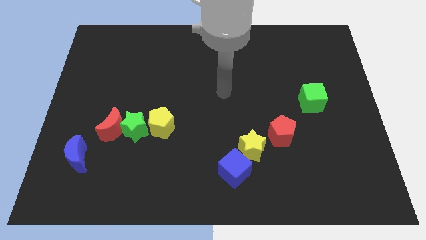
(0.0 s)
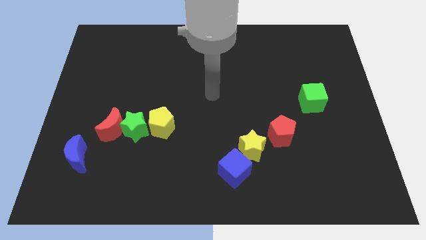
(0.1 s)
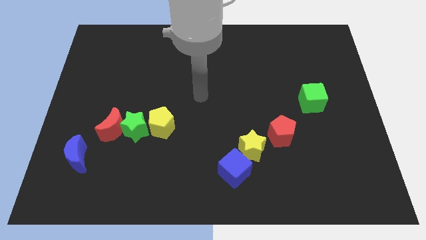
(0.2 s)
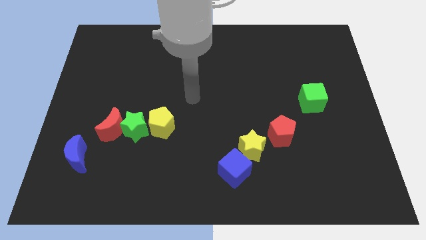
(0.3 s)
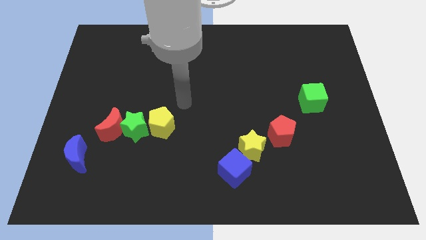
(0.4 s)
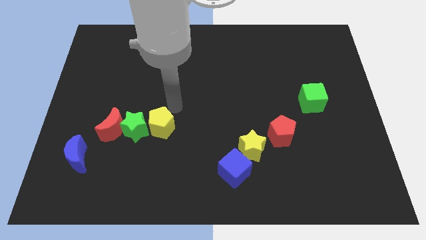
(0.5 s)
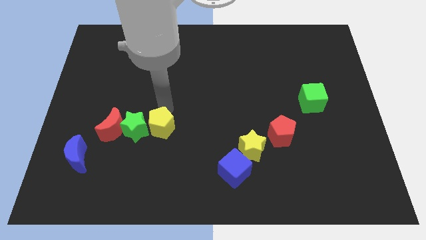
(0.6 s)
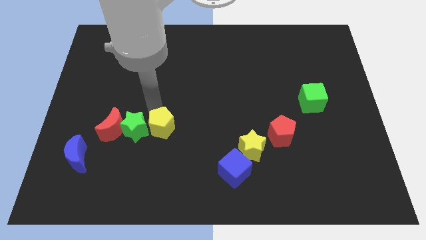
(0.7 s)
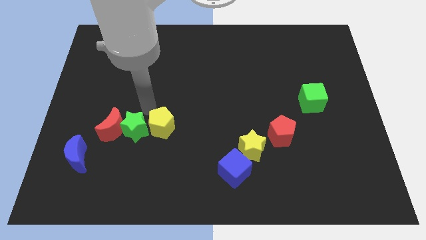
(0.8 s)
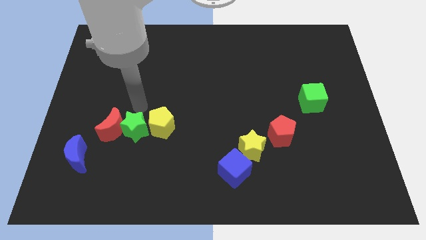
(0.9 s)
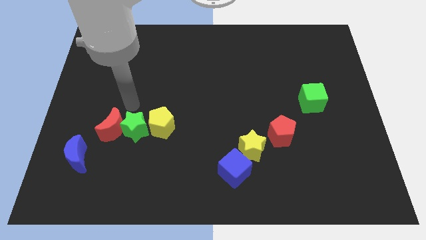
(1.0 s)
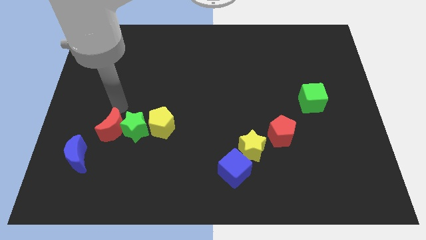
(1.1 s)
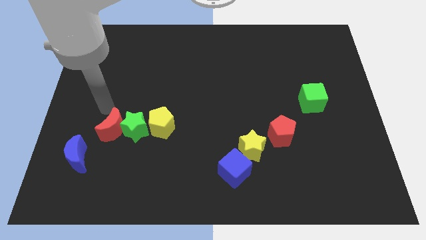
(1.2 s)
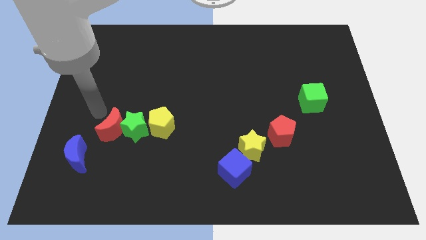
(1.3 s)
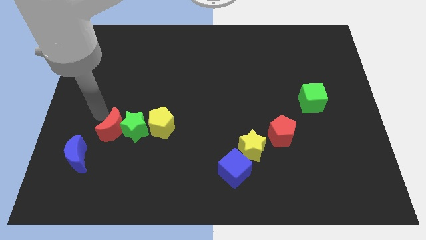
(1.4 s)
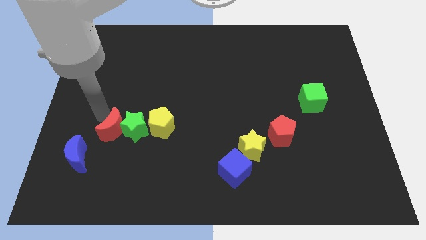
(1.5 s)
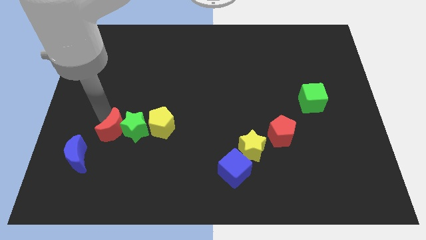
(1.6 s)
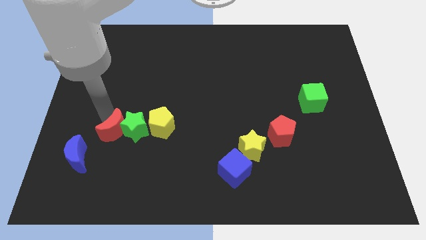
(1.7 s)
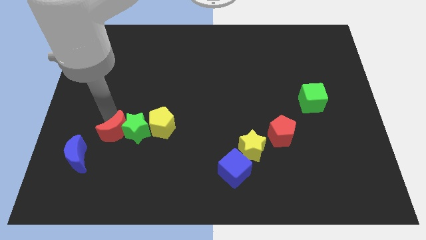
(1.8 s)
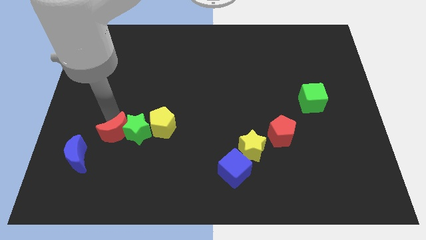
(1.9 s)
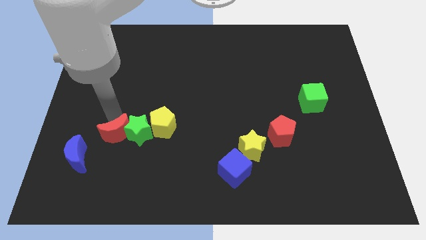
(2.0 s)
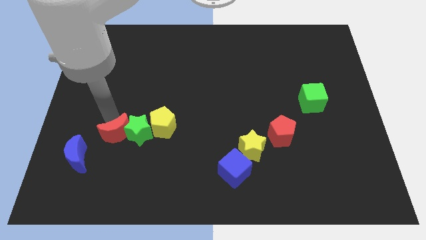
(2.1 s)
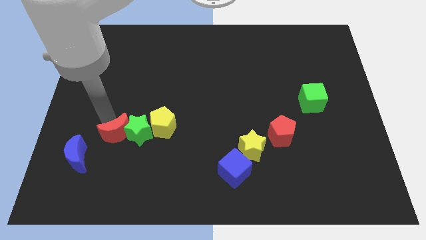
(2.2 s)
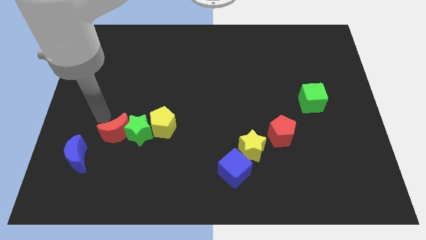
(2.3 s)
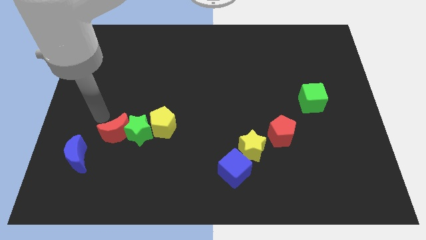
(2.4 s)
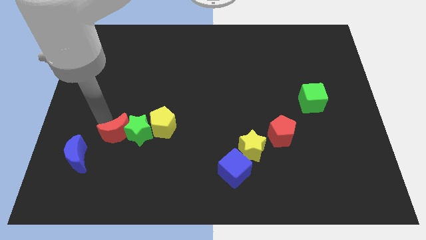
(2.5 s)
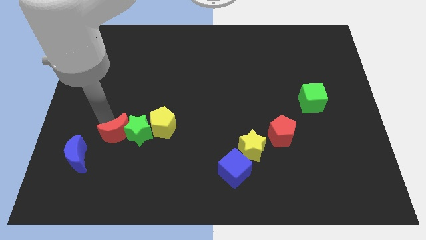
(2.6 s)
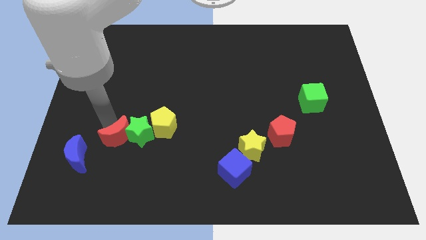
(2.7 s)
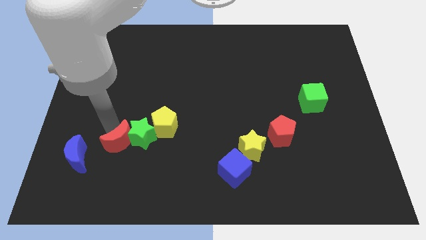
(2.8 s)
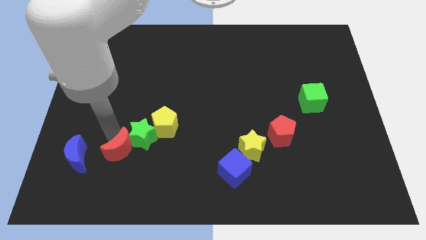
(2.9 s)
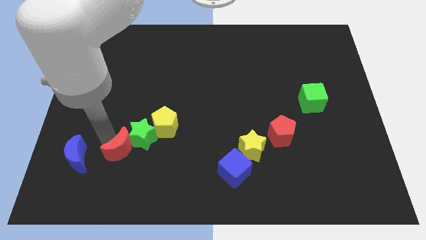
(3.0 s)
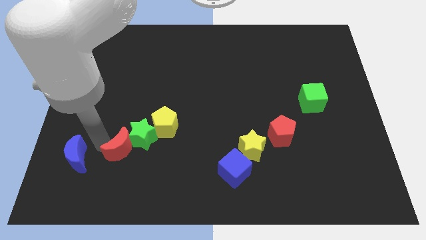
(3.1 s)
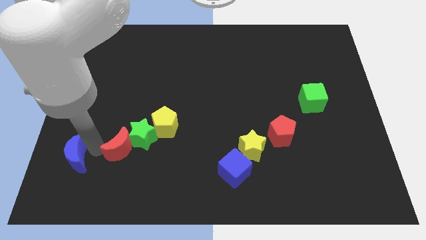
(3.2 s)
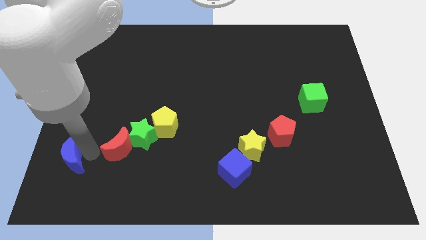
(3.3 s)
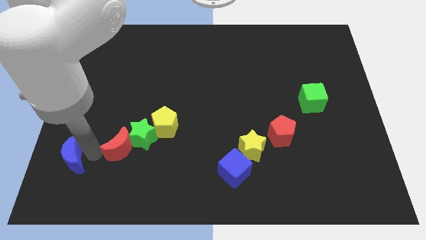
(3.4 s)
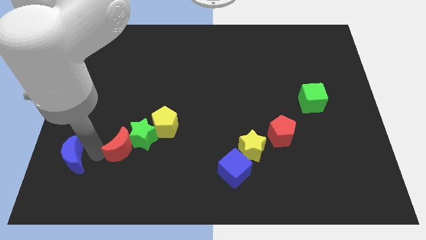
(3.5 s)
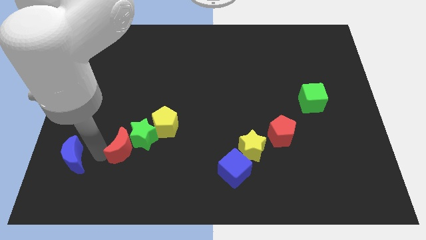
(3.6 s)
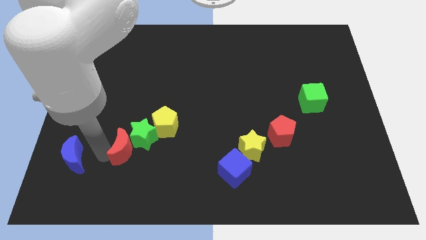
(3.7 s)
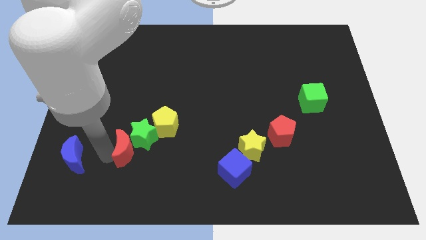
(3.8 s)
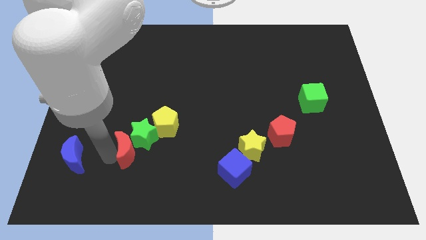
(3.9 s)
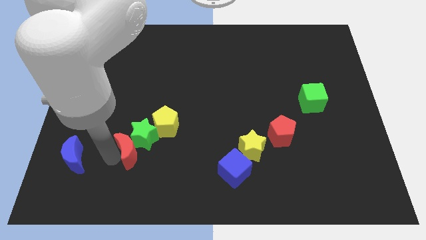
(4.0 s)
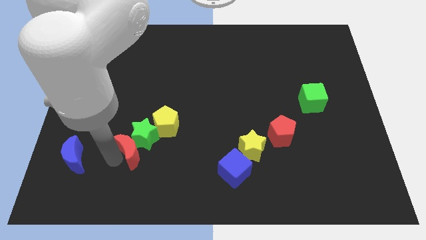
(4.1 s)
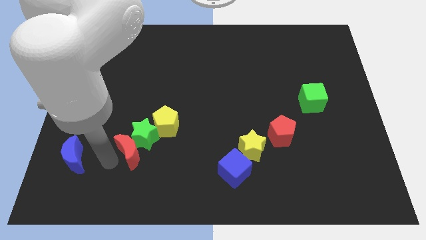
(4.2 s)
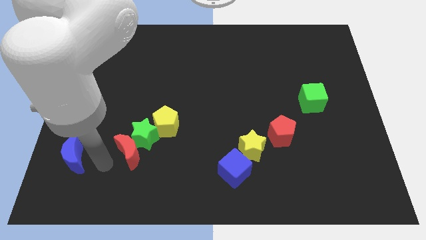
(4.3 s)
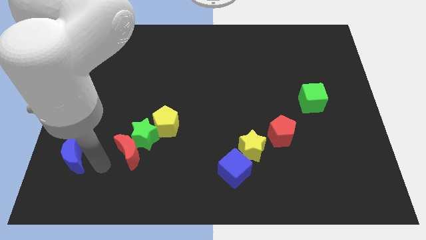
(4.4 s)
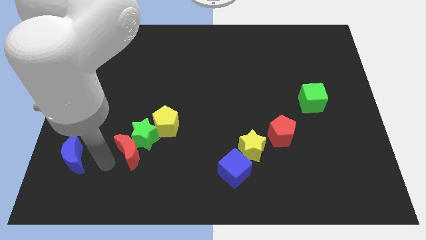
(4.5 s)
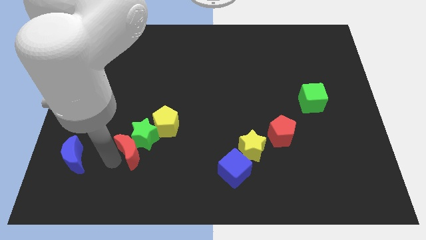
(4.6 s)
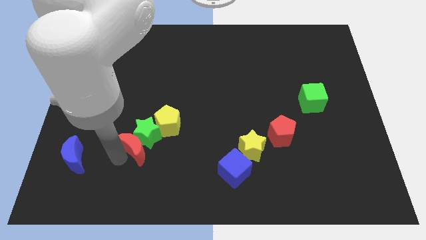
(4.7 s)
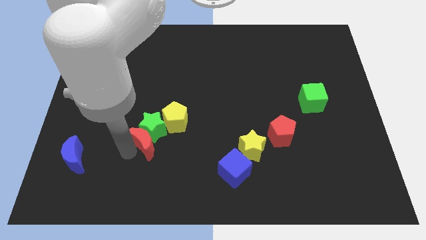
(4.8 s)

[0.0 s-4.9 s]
slide the red moon slightly right

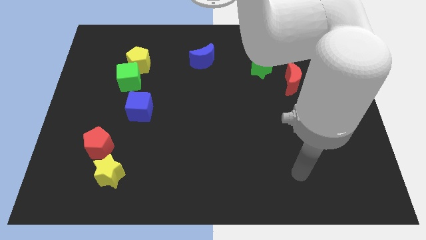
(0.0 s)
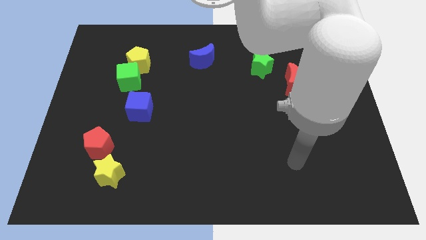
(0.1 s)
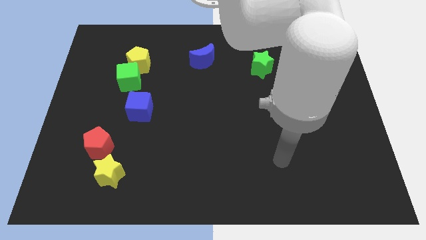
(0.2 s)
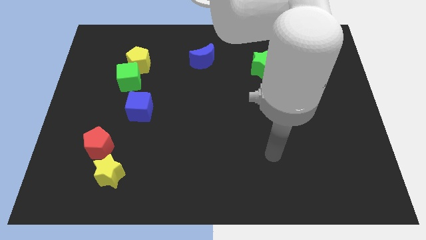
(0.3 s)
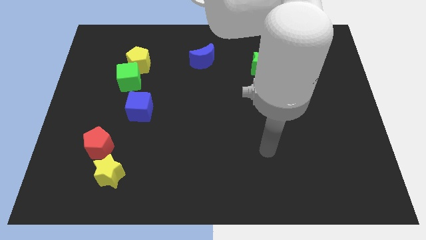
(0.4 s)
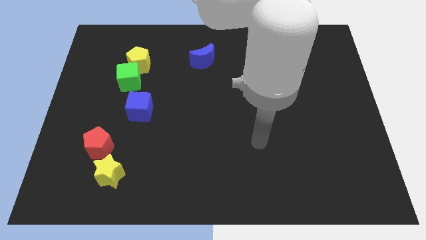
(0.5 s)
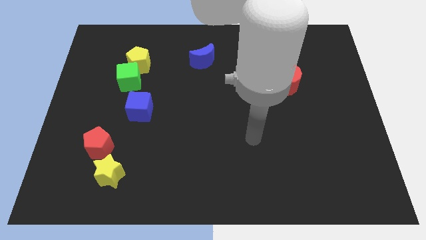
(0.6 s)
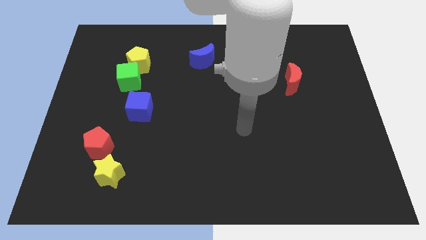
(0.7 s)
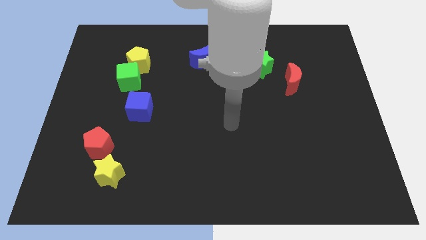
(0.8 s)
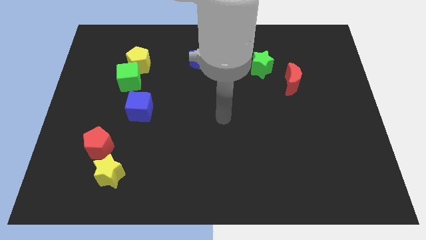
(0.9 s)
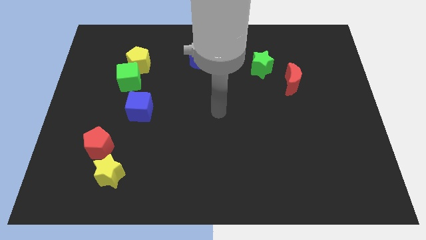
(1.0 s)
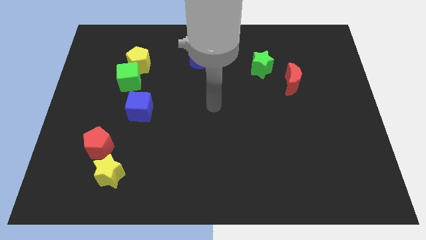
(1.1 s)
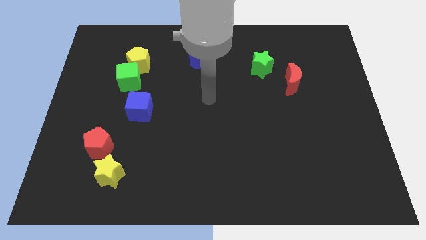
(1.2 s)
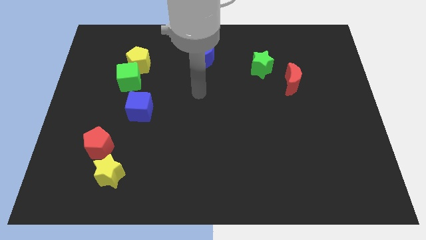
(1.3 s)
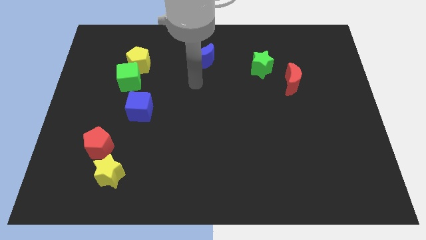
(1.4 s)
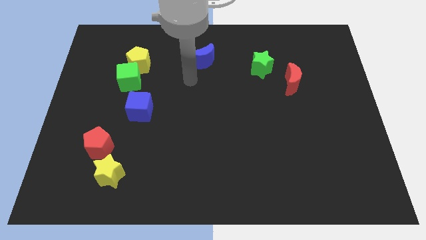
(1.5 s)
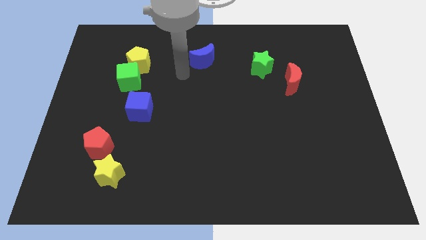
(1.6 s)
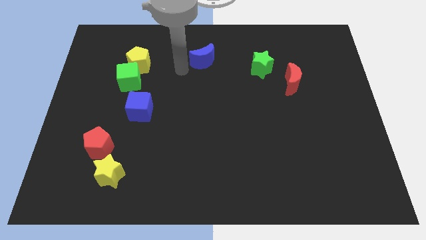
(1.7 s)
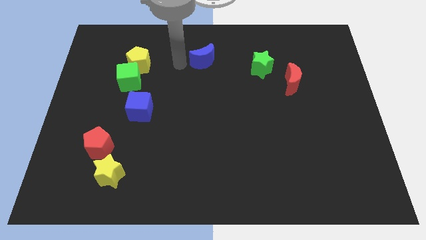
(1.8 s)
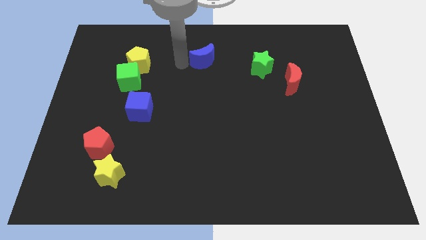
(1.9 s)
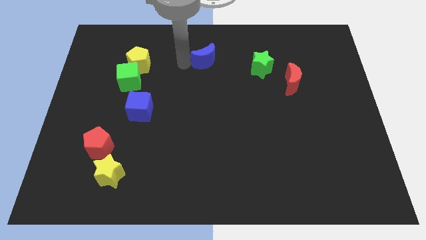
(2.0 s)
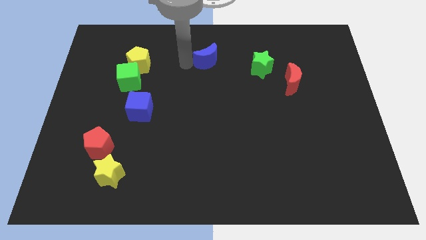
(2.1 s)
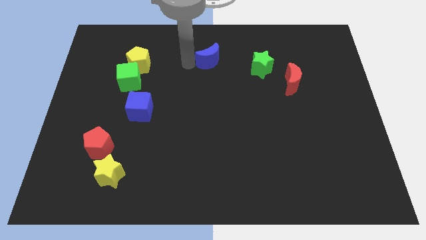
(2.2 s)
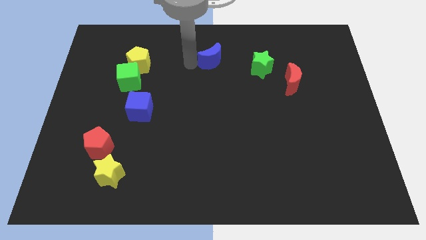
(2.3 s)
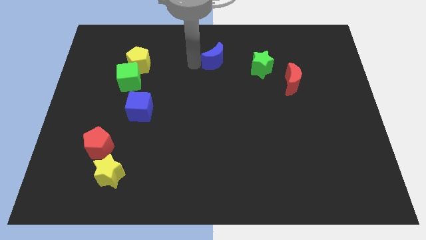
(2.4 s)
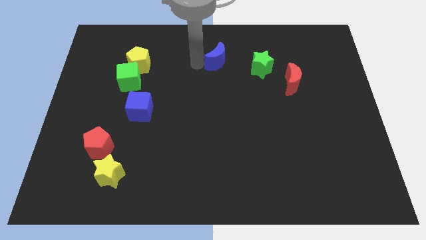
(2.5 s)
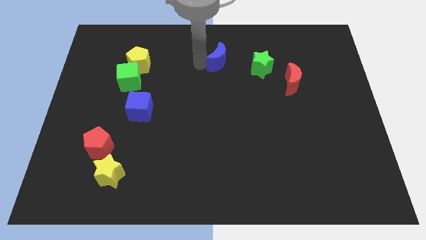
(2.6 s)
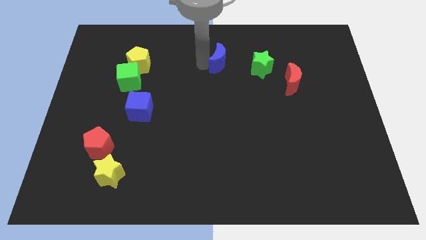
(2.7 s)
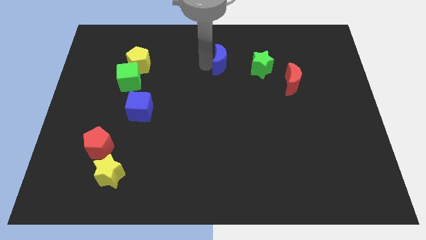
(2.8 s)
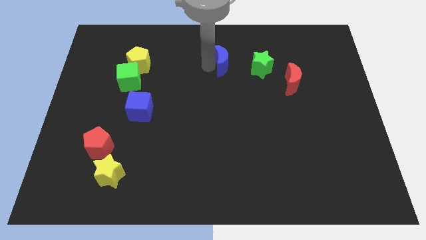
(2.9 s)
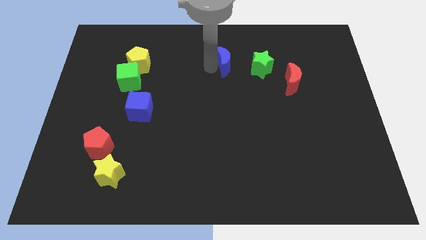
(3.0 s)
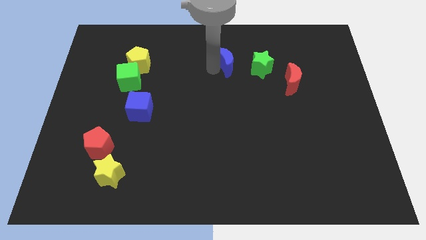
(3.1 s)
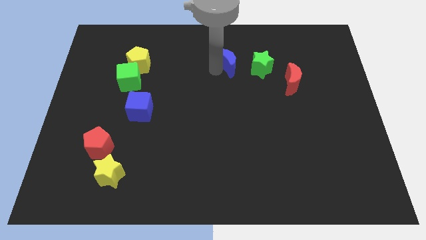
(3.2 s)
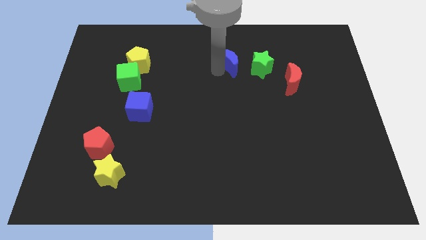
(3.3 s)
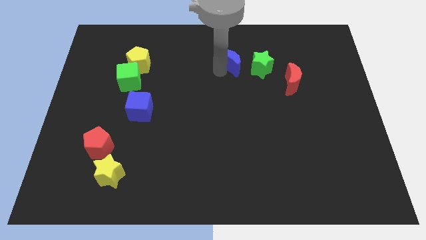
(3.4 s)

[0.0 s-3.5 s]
move the blue moon to the right somewhat
